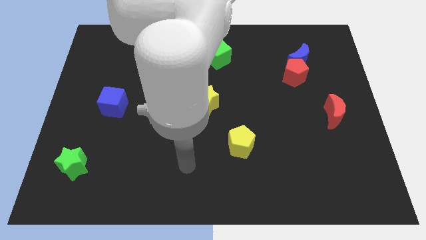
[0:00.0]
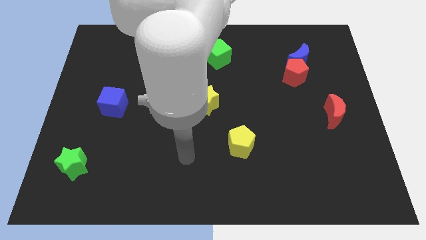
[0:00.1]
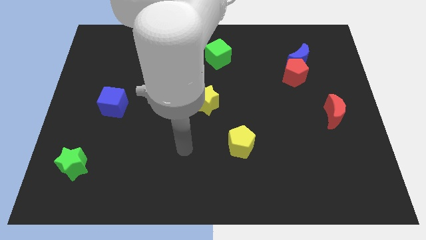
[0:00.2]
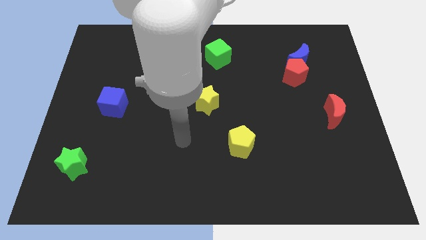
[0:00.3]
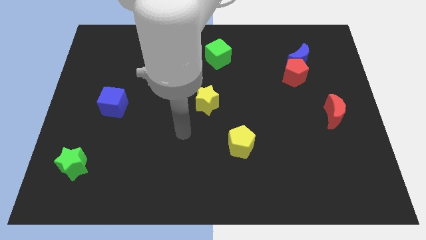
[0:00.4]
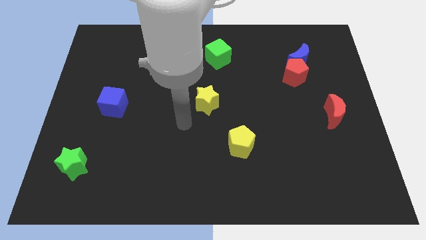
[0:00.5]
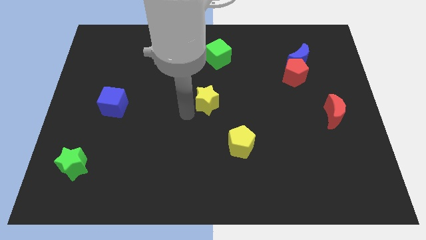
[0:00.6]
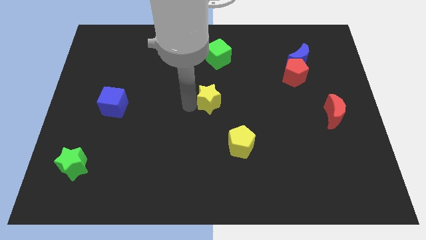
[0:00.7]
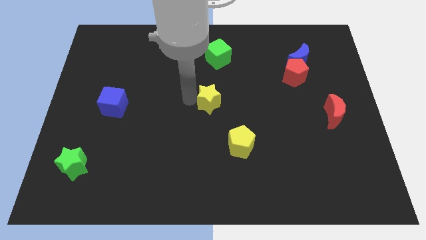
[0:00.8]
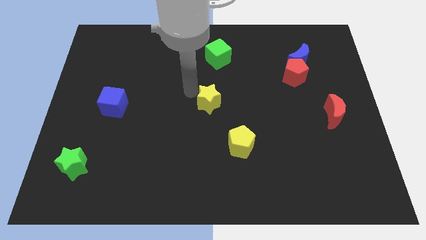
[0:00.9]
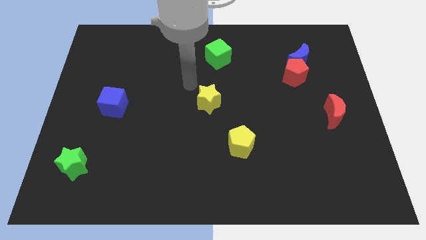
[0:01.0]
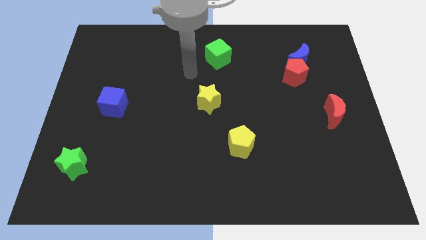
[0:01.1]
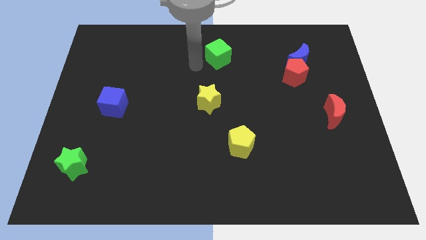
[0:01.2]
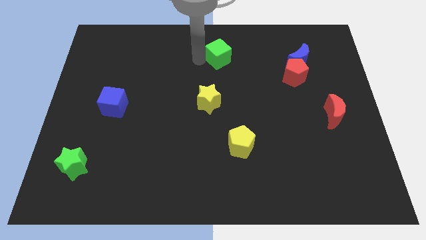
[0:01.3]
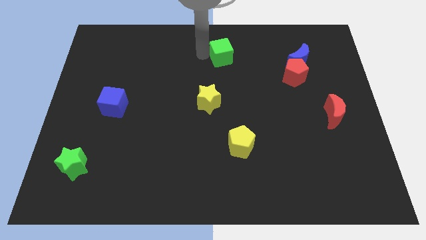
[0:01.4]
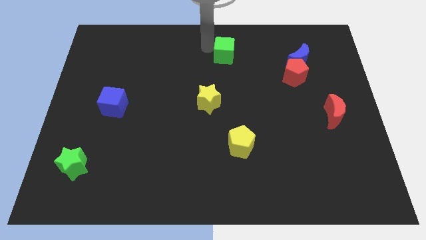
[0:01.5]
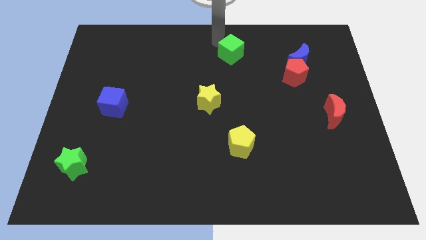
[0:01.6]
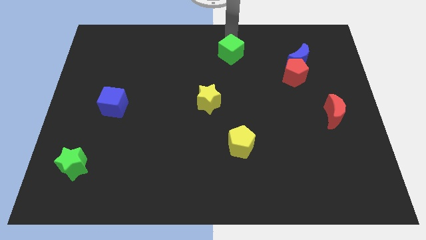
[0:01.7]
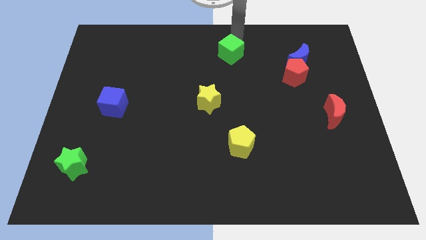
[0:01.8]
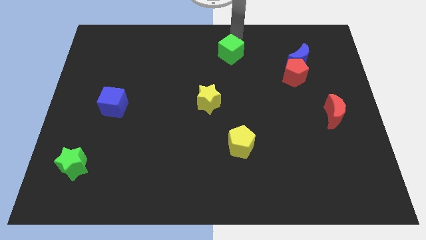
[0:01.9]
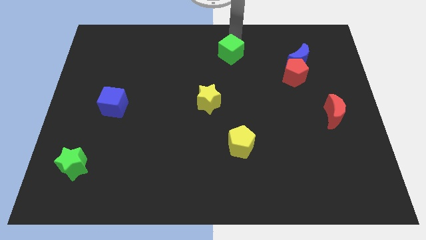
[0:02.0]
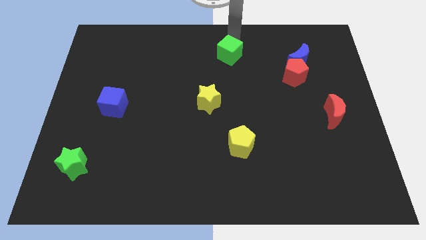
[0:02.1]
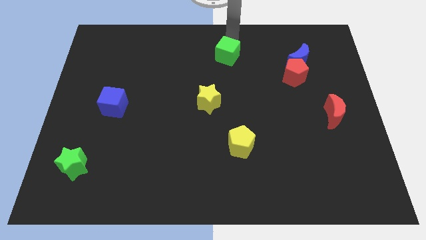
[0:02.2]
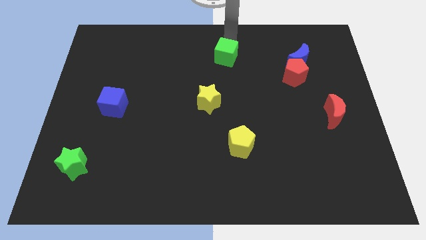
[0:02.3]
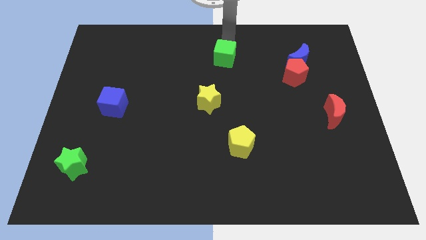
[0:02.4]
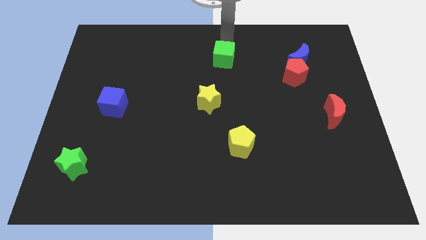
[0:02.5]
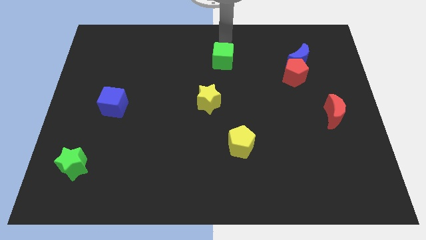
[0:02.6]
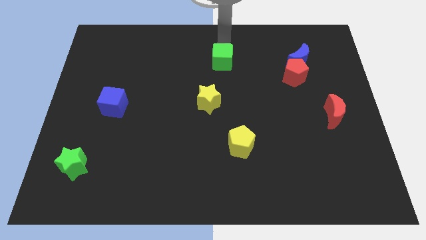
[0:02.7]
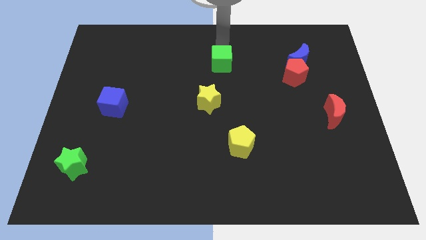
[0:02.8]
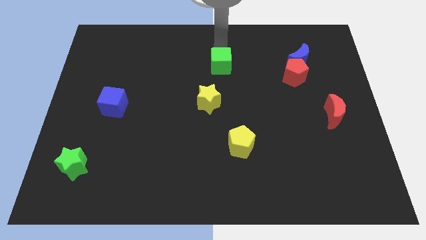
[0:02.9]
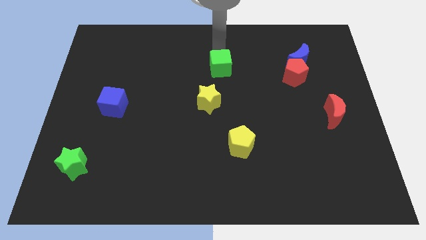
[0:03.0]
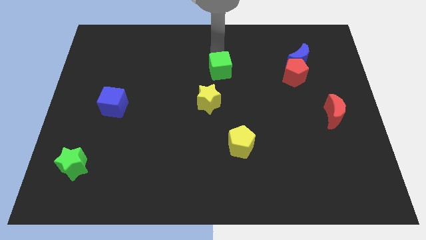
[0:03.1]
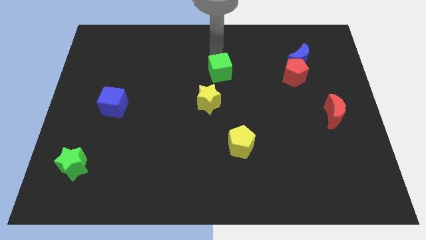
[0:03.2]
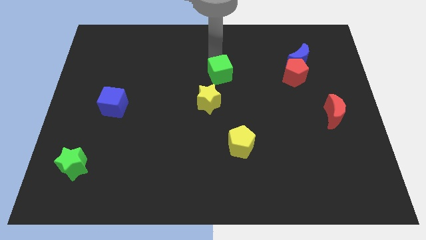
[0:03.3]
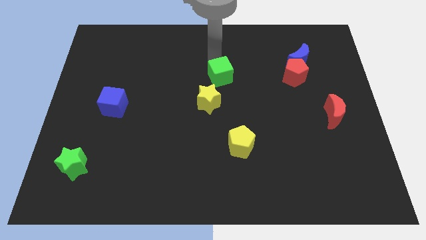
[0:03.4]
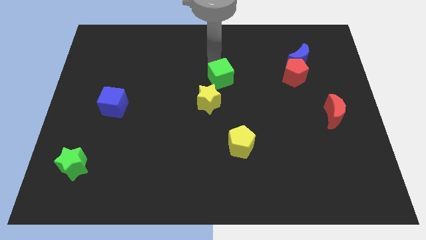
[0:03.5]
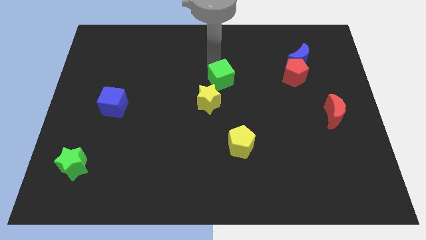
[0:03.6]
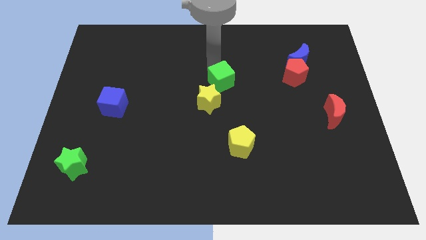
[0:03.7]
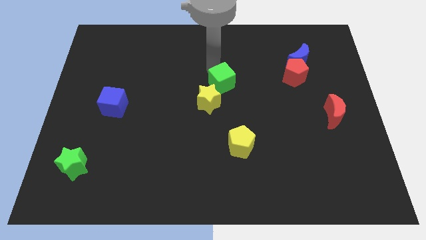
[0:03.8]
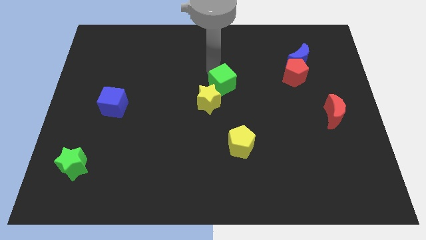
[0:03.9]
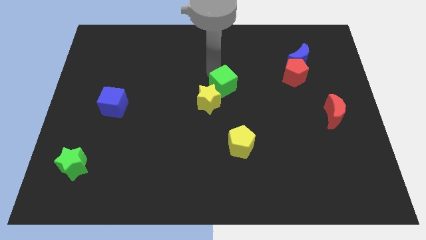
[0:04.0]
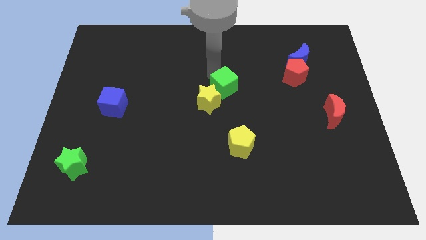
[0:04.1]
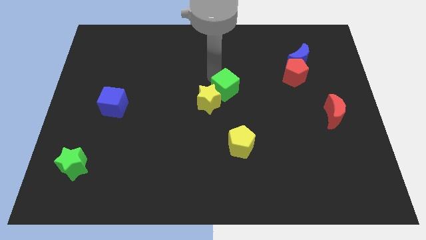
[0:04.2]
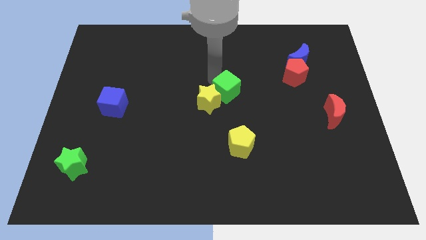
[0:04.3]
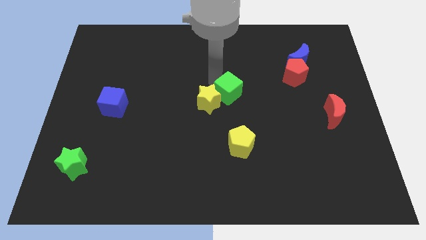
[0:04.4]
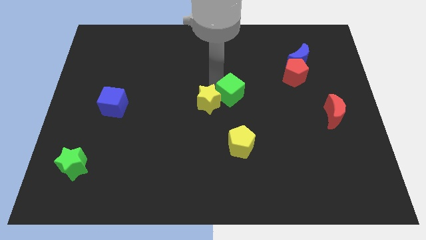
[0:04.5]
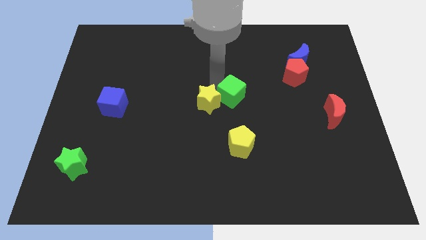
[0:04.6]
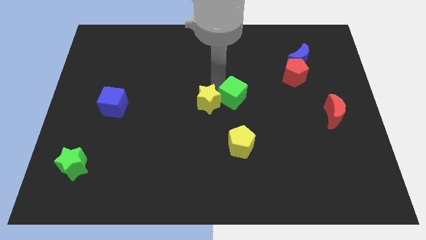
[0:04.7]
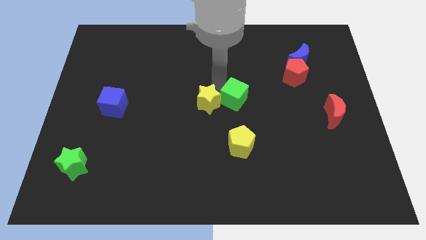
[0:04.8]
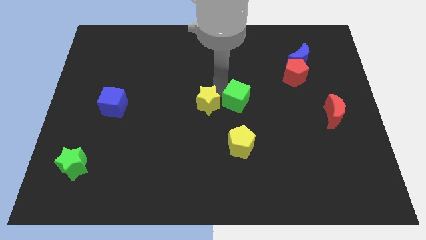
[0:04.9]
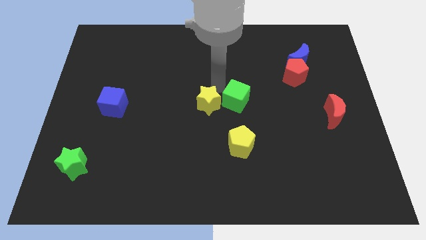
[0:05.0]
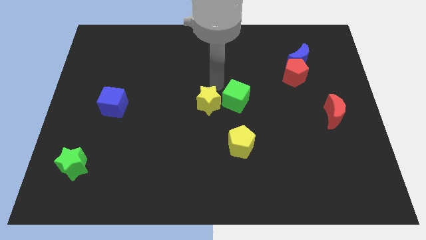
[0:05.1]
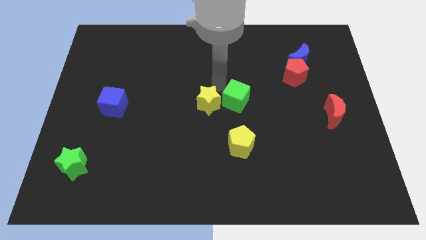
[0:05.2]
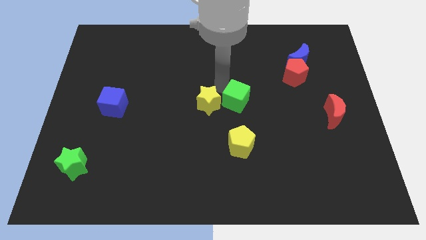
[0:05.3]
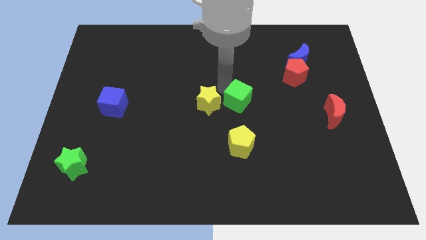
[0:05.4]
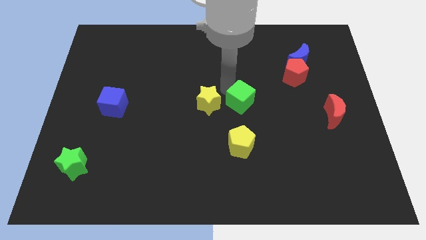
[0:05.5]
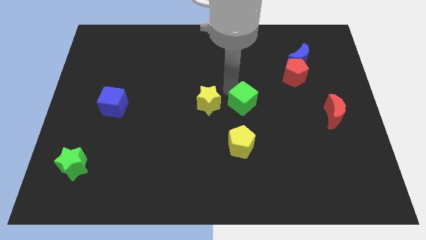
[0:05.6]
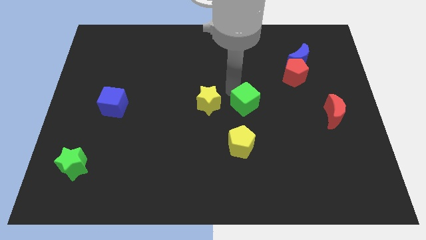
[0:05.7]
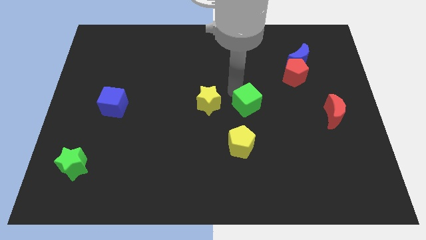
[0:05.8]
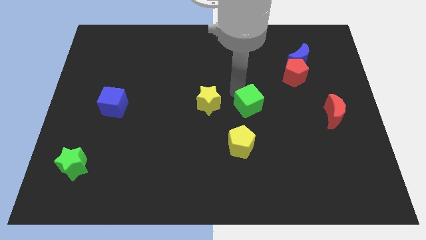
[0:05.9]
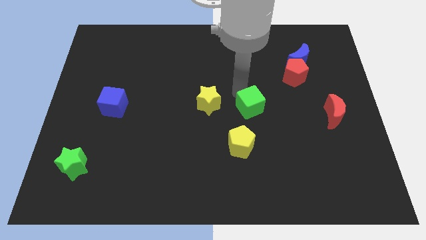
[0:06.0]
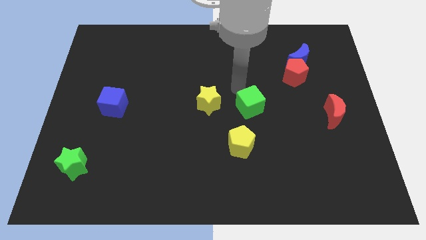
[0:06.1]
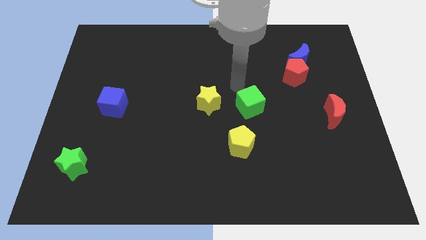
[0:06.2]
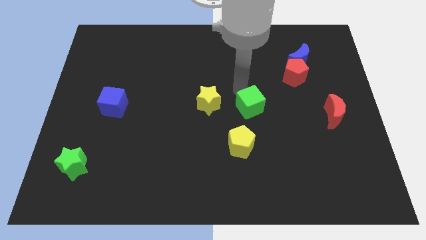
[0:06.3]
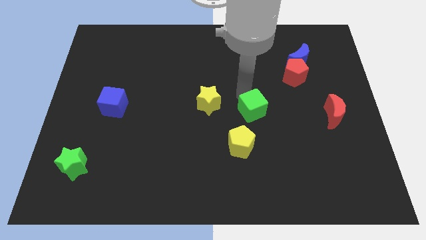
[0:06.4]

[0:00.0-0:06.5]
slide the green cube to the top right side of the yellow pentagon

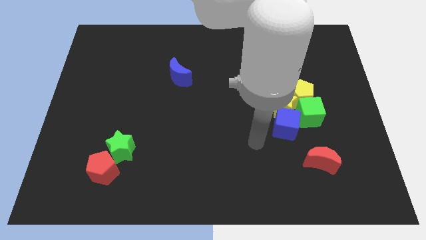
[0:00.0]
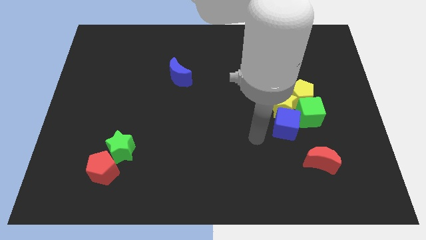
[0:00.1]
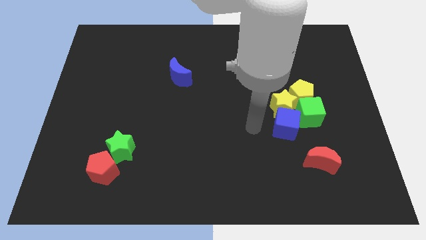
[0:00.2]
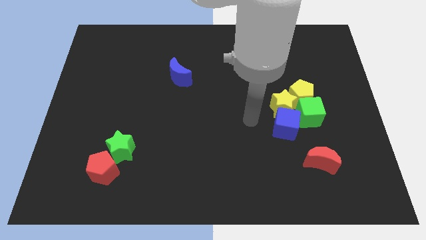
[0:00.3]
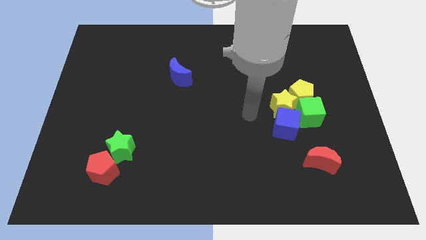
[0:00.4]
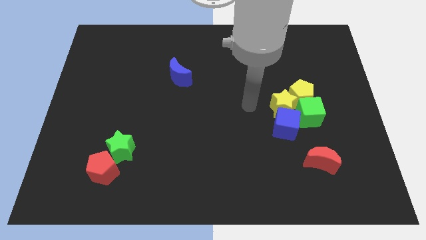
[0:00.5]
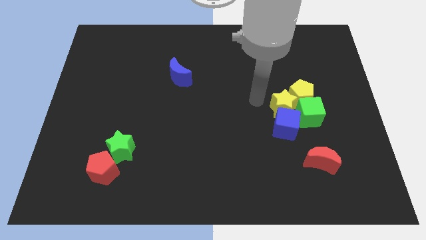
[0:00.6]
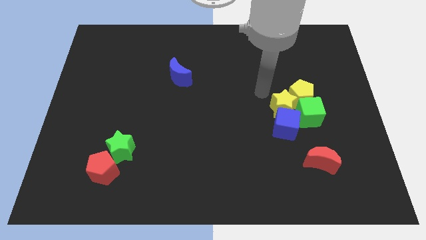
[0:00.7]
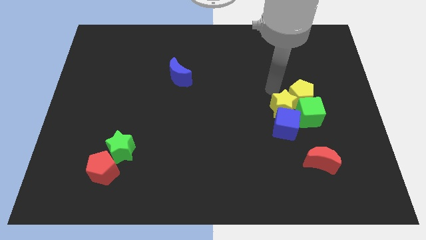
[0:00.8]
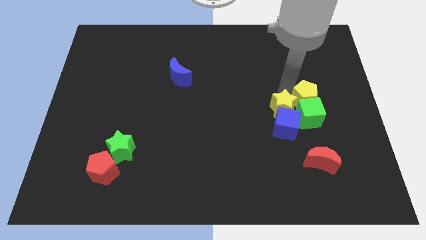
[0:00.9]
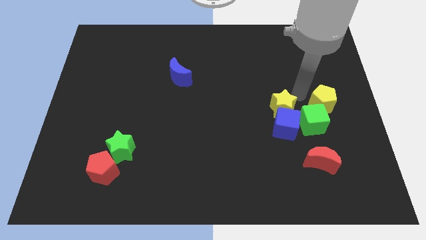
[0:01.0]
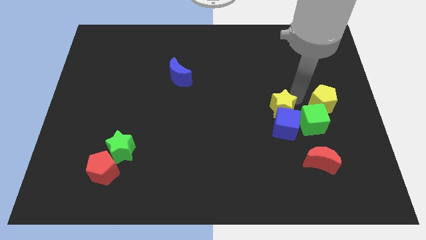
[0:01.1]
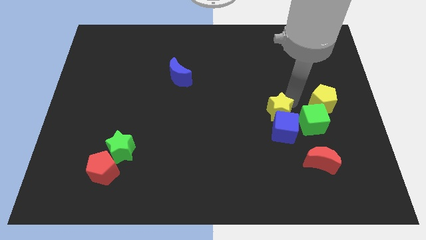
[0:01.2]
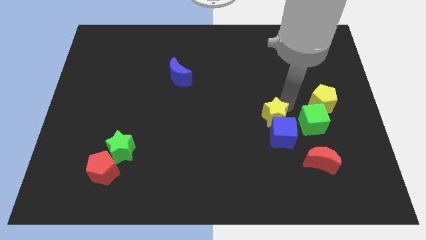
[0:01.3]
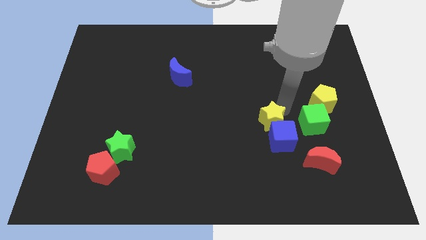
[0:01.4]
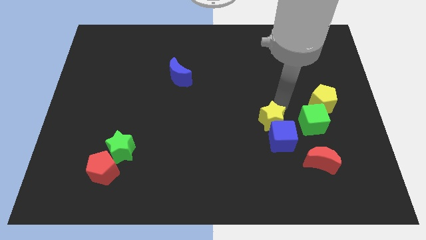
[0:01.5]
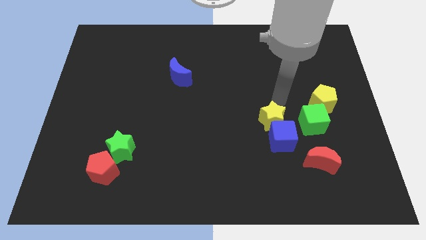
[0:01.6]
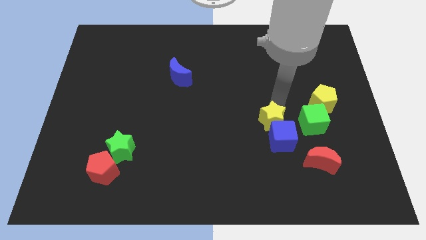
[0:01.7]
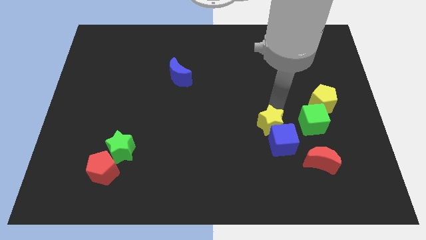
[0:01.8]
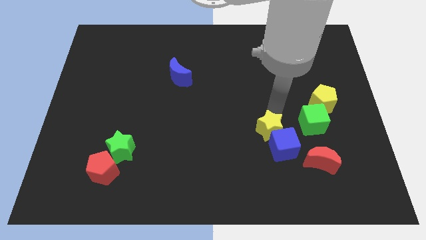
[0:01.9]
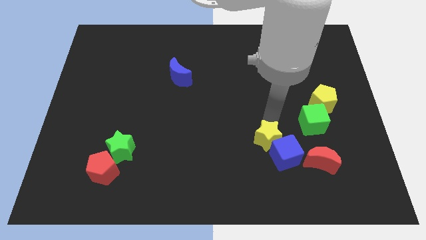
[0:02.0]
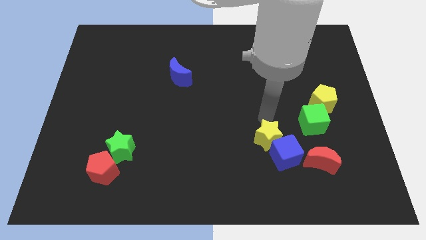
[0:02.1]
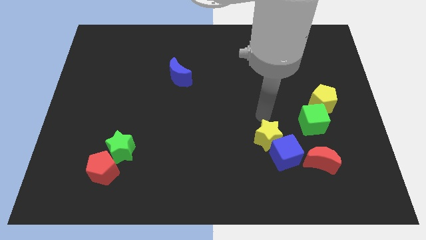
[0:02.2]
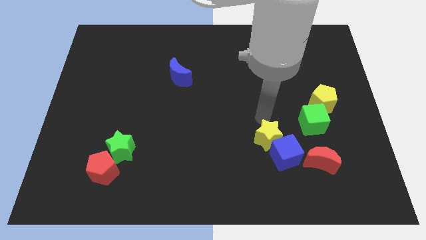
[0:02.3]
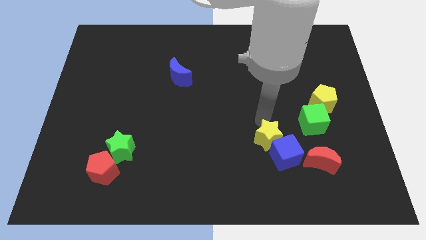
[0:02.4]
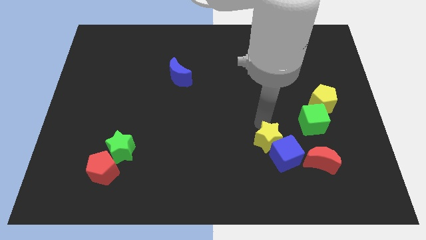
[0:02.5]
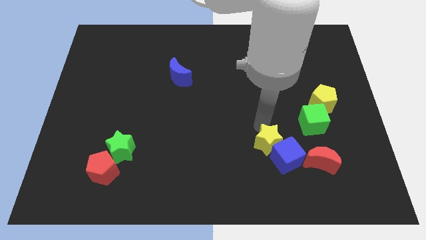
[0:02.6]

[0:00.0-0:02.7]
slide the yellow star to the left of the red moon
